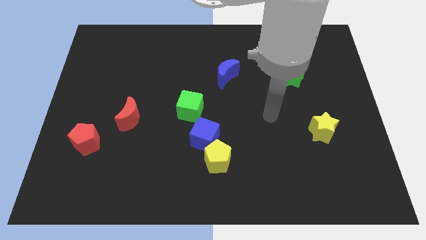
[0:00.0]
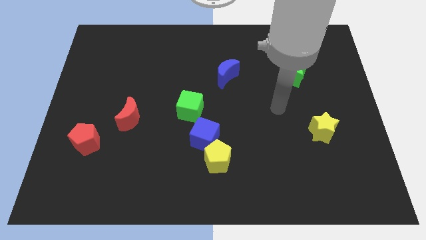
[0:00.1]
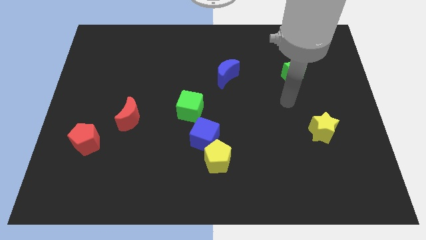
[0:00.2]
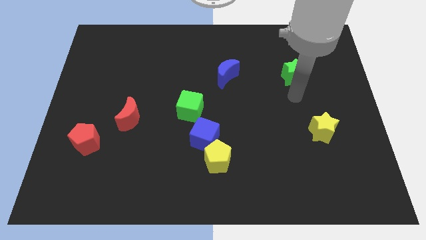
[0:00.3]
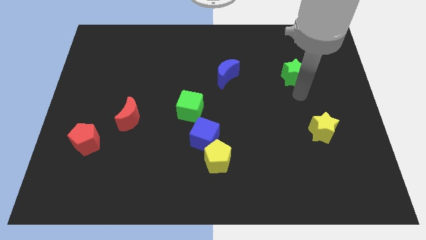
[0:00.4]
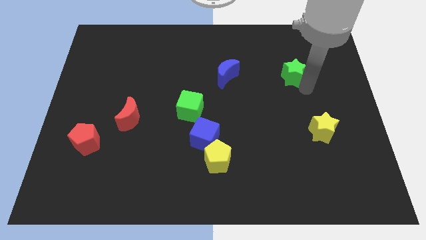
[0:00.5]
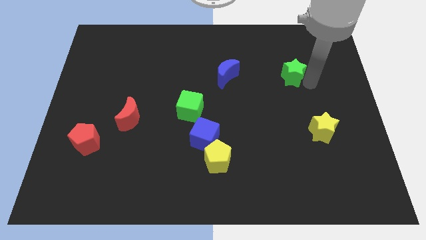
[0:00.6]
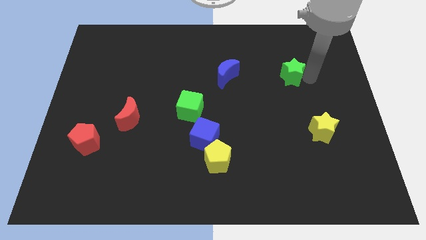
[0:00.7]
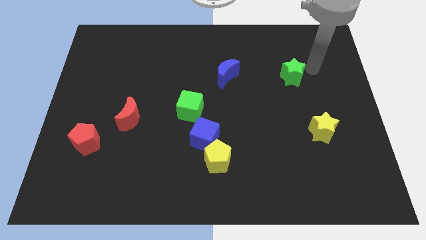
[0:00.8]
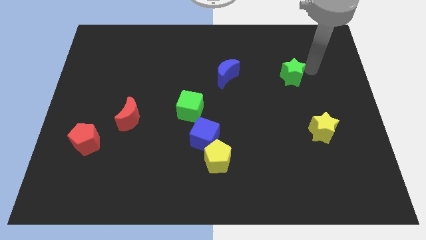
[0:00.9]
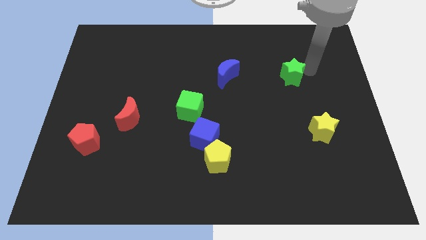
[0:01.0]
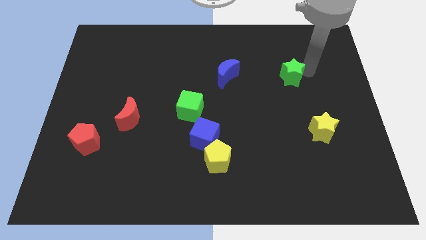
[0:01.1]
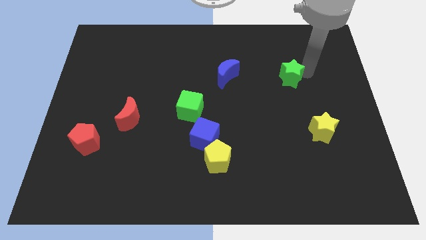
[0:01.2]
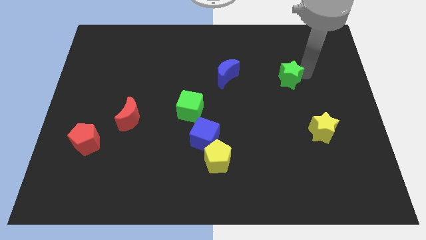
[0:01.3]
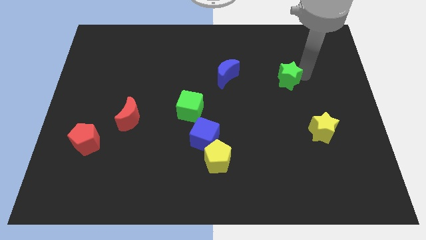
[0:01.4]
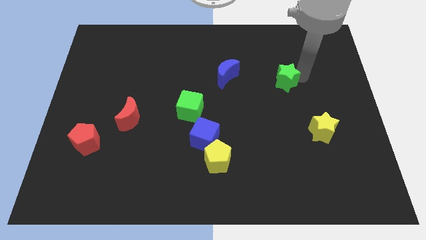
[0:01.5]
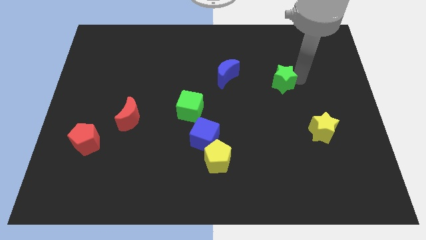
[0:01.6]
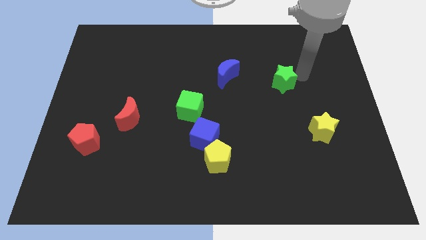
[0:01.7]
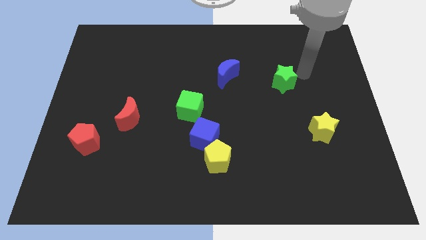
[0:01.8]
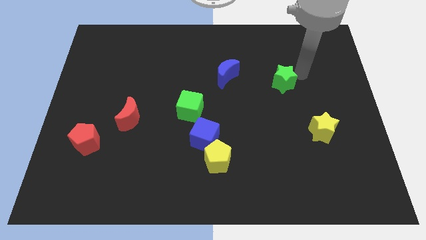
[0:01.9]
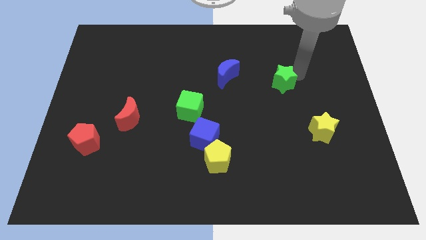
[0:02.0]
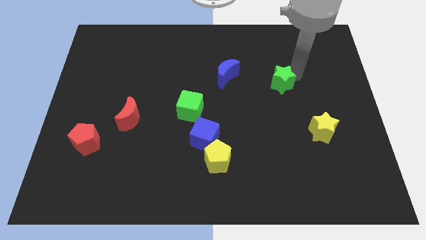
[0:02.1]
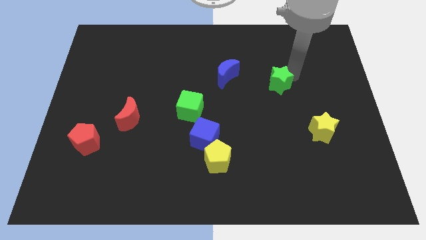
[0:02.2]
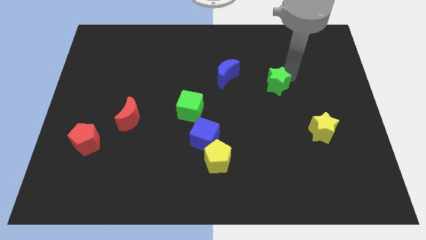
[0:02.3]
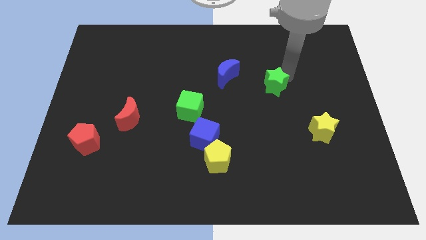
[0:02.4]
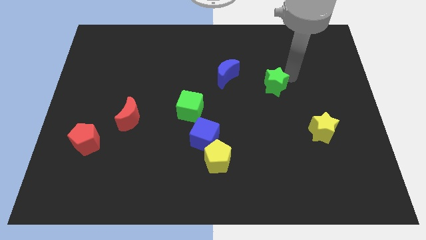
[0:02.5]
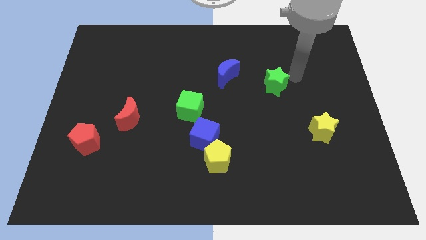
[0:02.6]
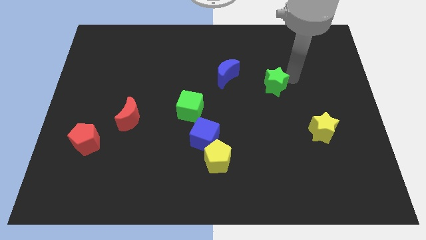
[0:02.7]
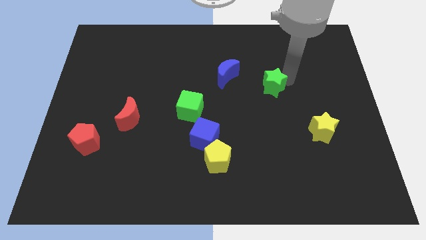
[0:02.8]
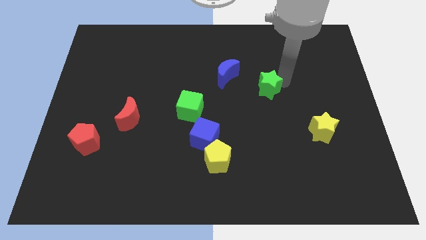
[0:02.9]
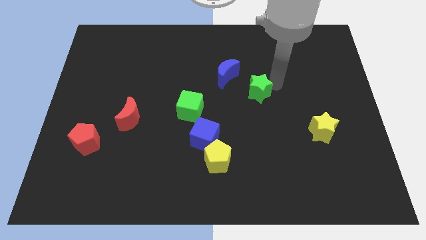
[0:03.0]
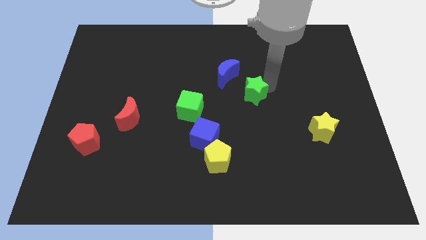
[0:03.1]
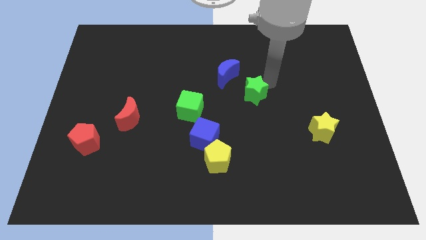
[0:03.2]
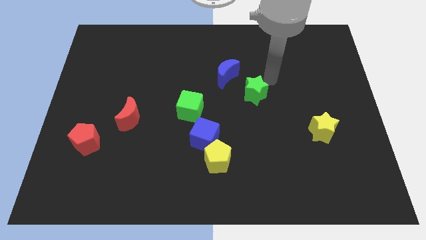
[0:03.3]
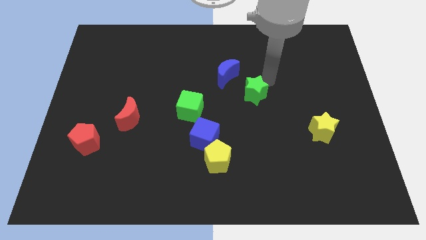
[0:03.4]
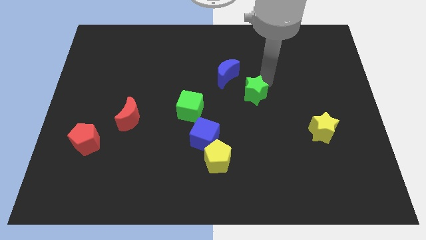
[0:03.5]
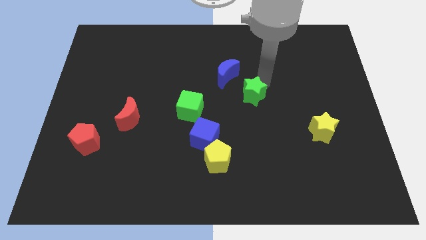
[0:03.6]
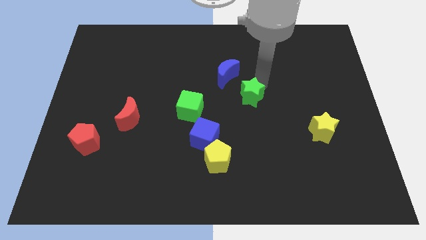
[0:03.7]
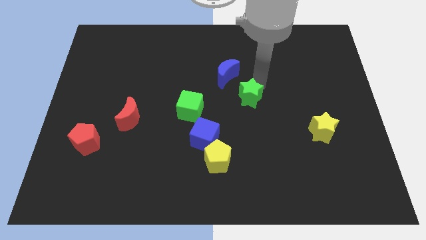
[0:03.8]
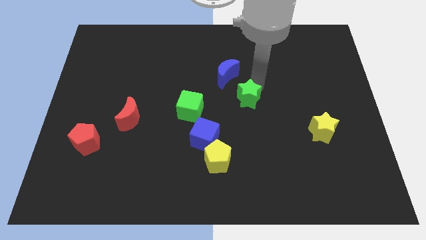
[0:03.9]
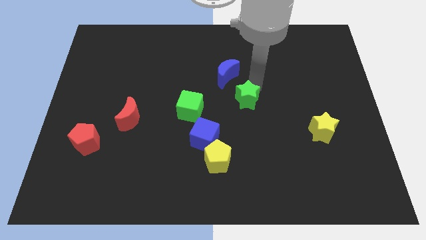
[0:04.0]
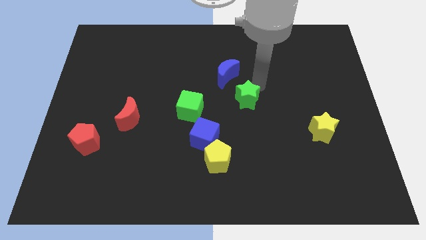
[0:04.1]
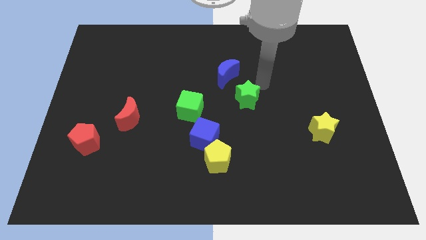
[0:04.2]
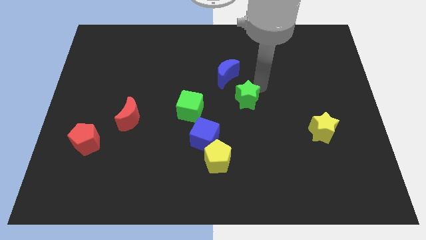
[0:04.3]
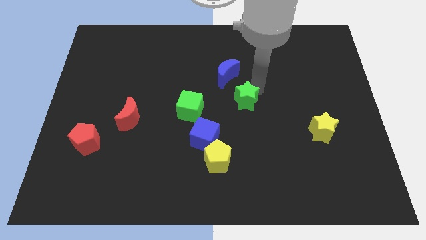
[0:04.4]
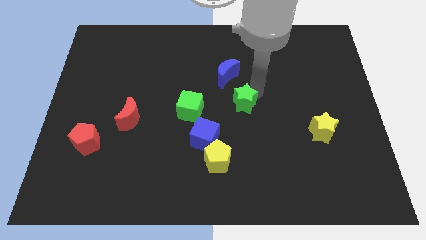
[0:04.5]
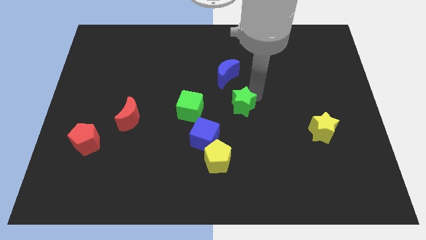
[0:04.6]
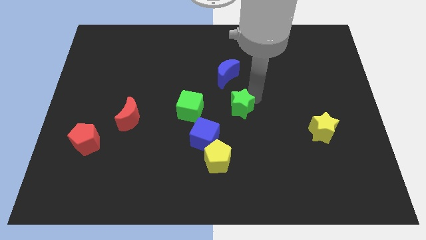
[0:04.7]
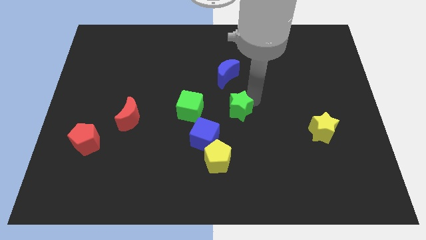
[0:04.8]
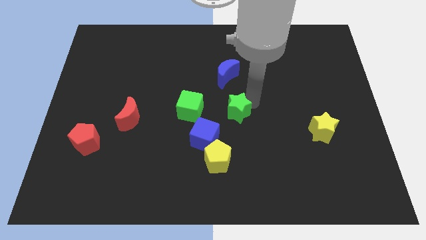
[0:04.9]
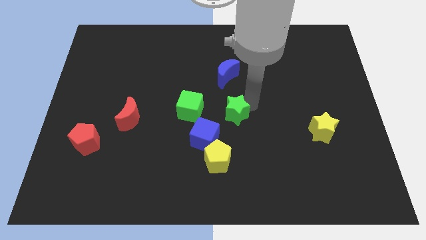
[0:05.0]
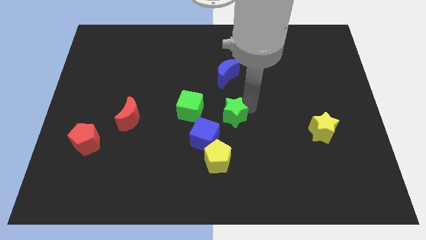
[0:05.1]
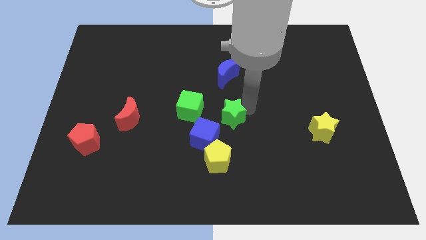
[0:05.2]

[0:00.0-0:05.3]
slide the green star downwards and to the left diagonally

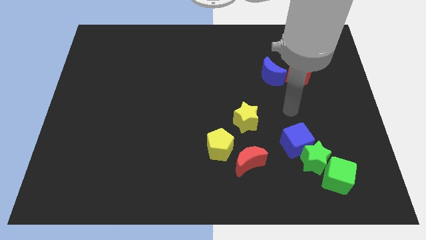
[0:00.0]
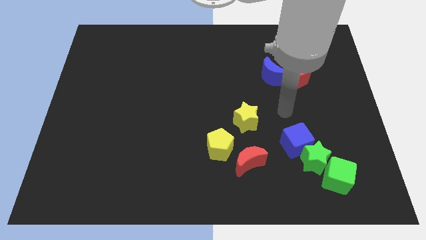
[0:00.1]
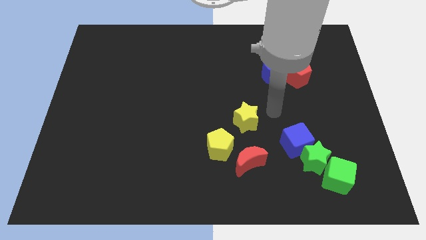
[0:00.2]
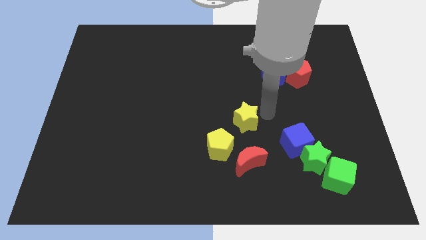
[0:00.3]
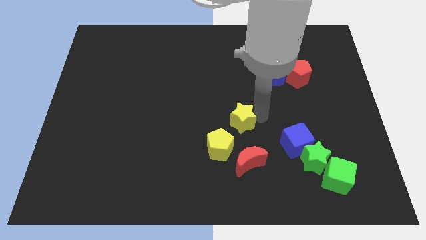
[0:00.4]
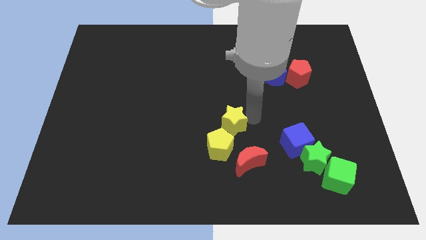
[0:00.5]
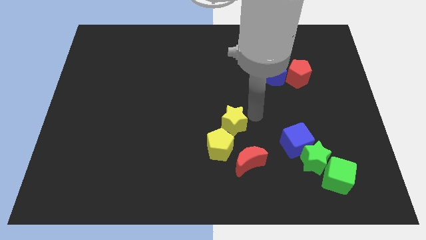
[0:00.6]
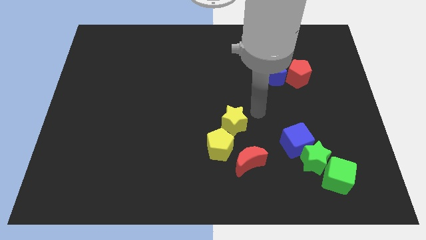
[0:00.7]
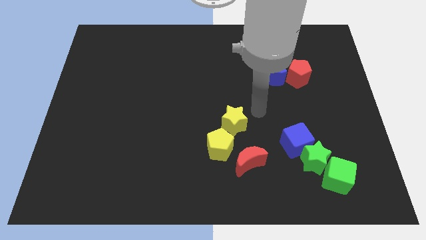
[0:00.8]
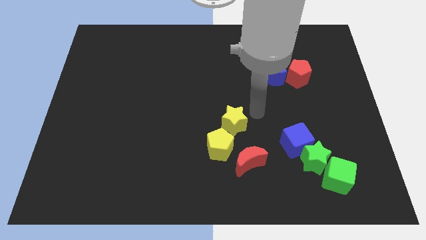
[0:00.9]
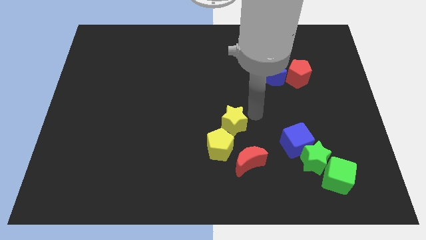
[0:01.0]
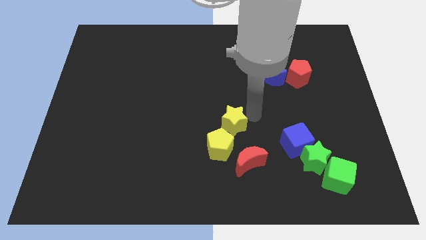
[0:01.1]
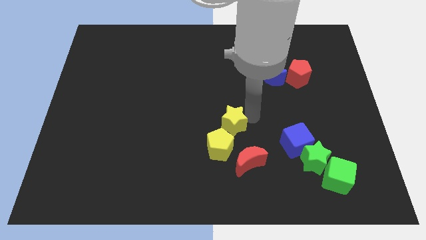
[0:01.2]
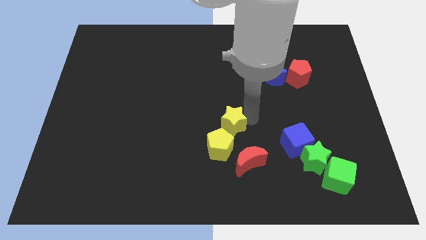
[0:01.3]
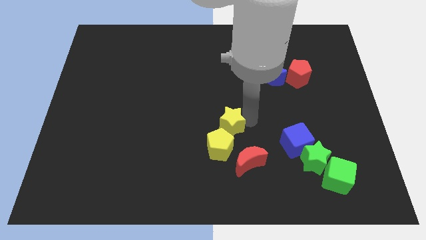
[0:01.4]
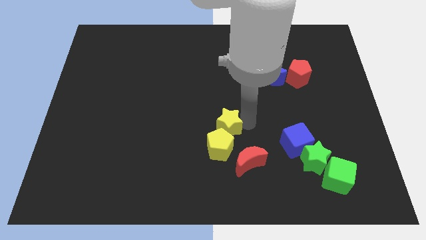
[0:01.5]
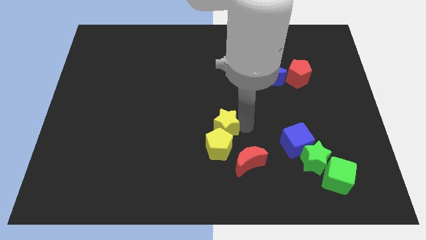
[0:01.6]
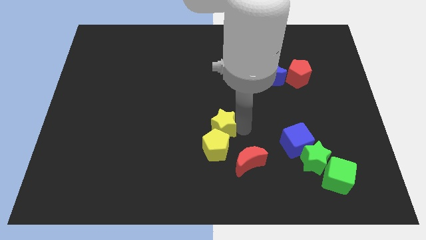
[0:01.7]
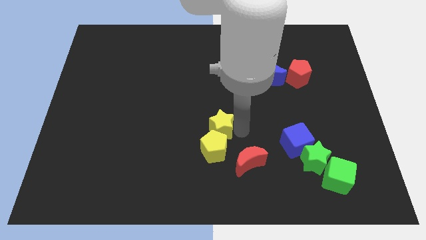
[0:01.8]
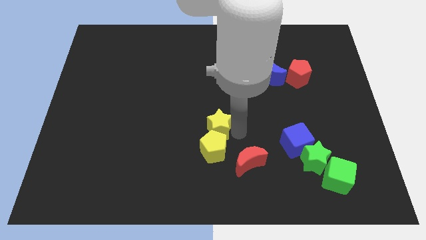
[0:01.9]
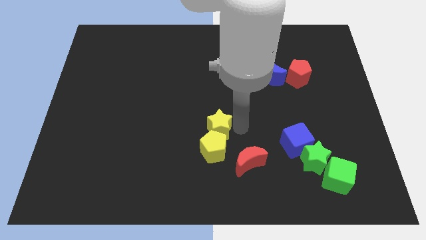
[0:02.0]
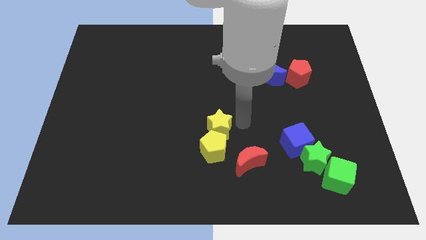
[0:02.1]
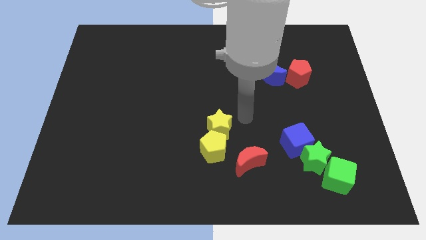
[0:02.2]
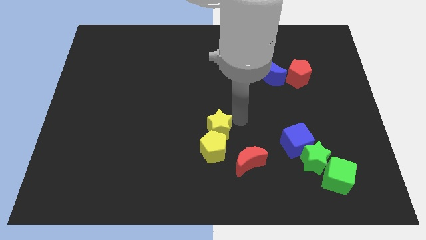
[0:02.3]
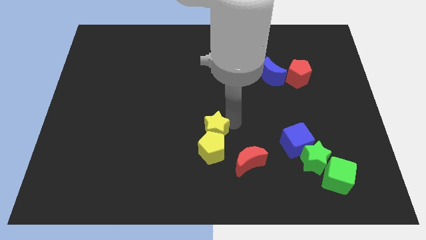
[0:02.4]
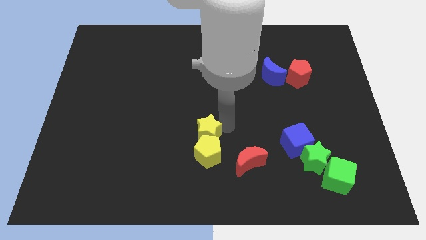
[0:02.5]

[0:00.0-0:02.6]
slightly slide the yellow star diagonally down and to the left

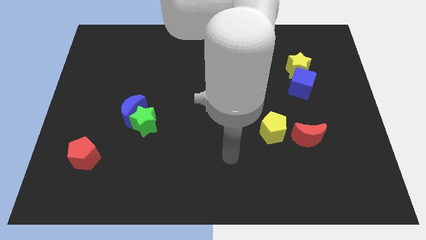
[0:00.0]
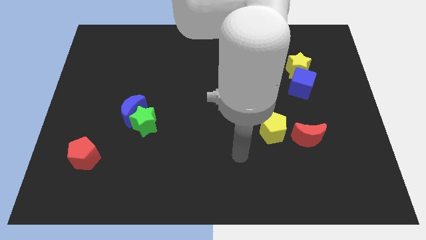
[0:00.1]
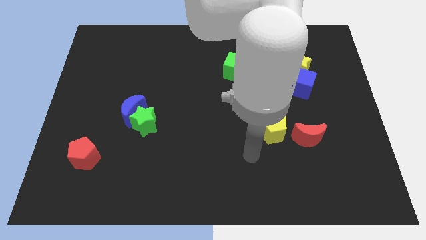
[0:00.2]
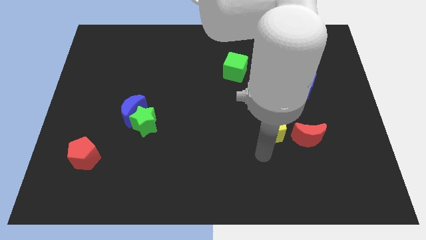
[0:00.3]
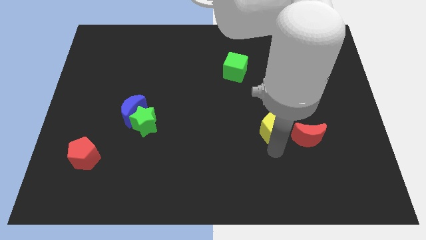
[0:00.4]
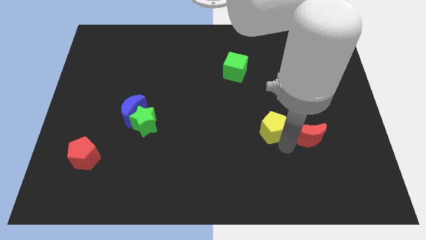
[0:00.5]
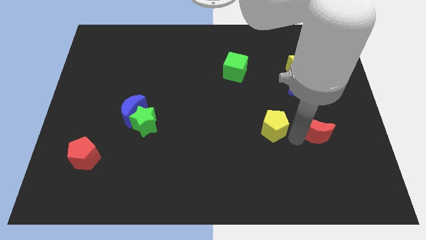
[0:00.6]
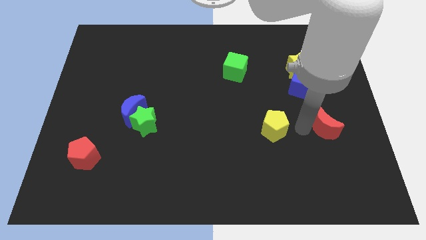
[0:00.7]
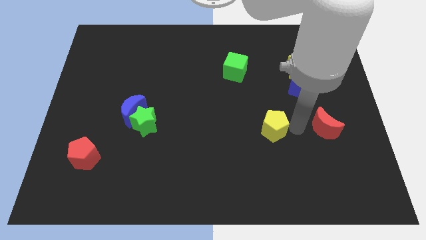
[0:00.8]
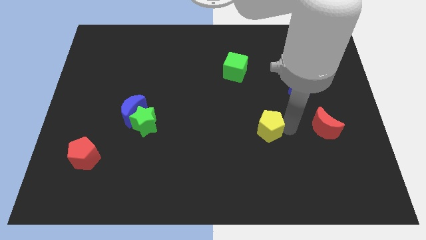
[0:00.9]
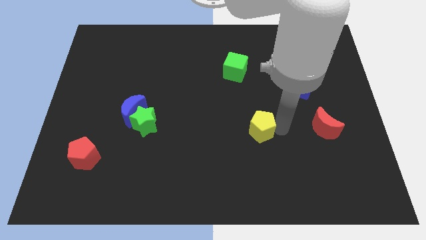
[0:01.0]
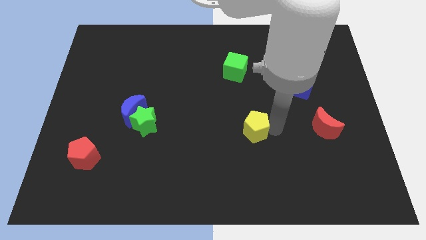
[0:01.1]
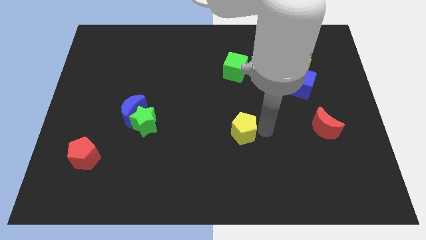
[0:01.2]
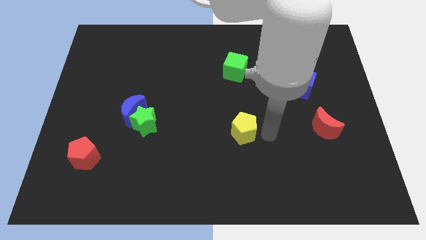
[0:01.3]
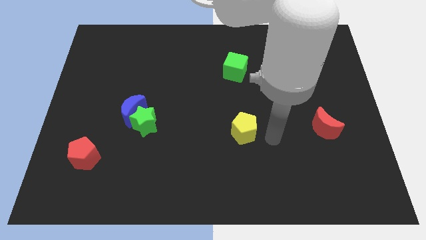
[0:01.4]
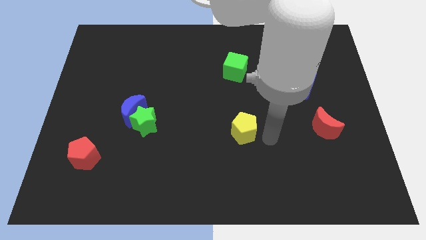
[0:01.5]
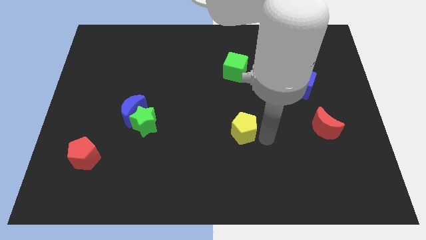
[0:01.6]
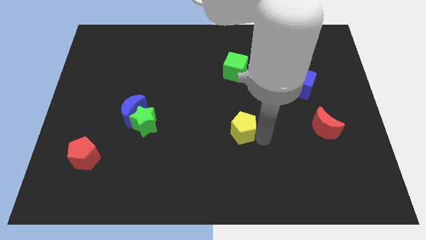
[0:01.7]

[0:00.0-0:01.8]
push the yellow pentagon a little bit to the left
